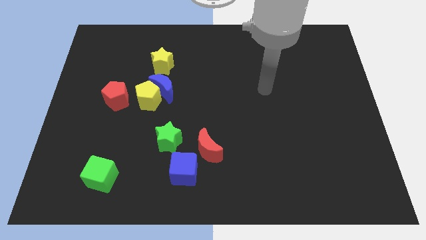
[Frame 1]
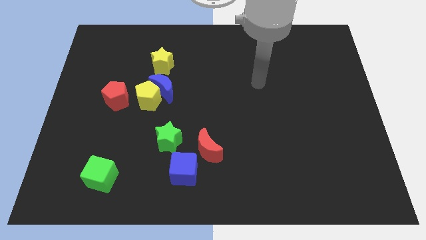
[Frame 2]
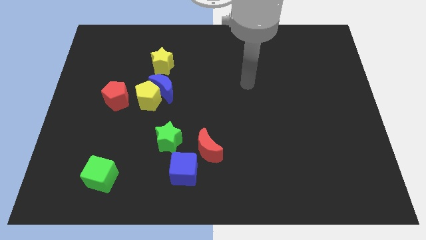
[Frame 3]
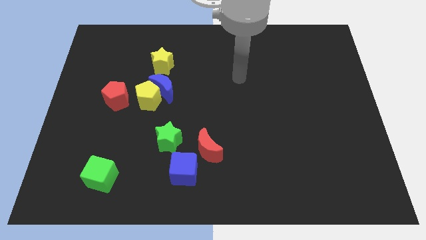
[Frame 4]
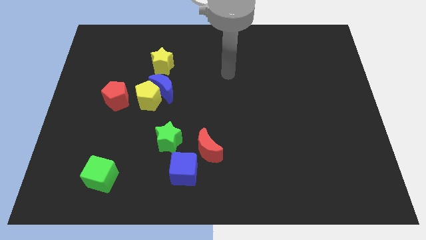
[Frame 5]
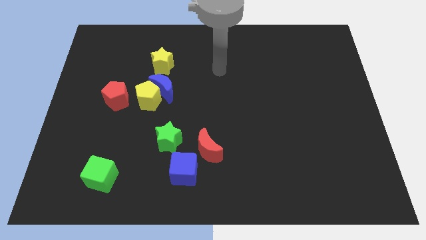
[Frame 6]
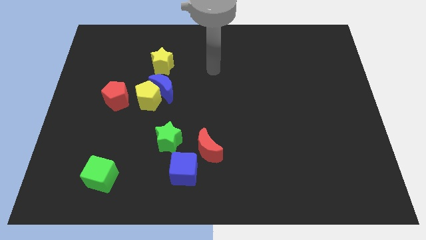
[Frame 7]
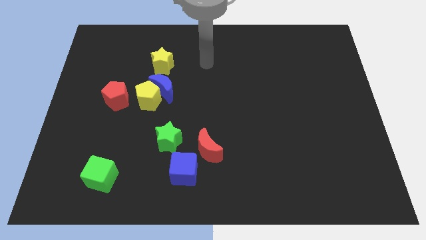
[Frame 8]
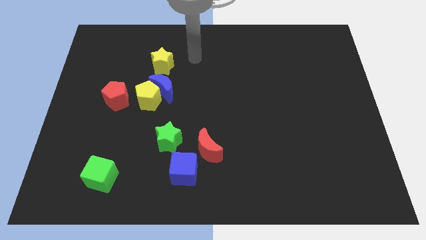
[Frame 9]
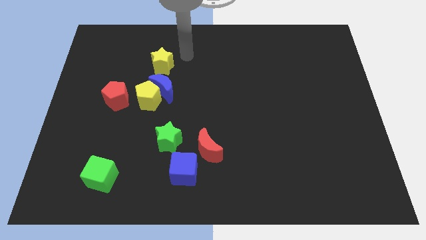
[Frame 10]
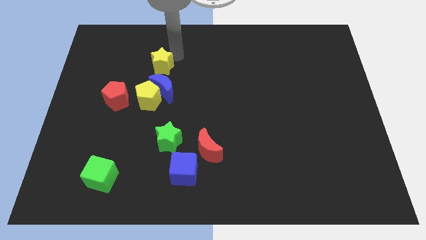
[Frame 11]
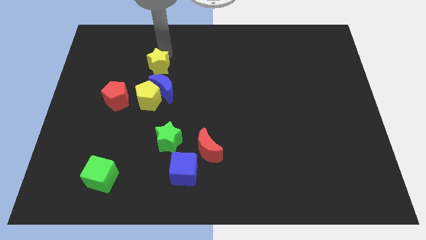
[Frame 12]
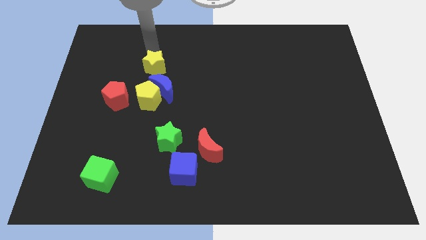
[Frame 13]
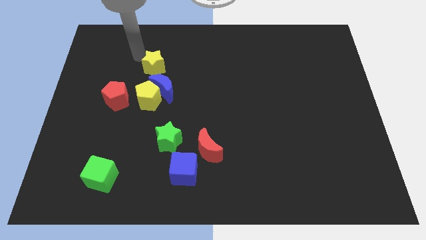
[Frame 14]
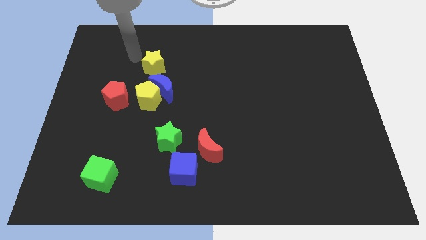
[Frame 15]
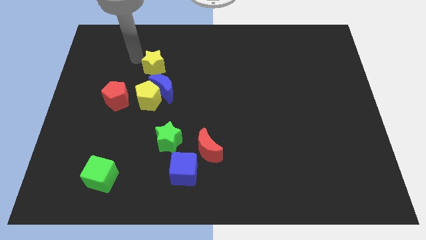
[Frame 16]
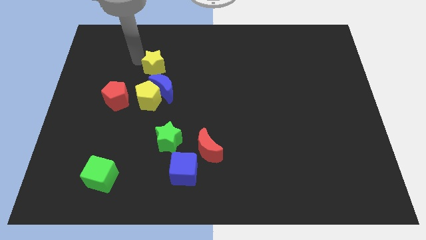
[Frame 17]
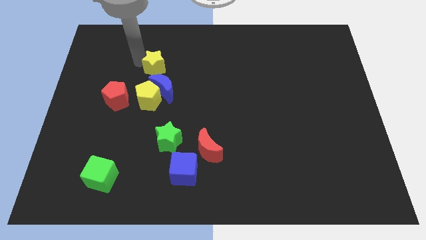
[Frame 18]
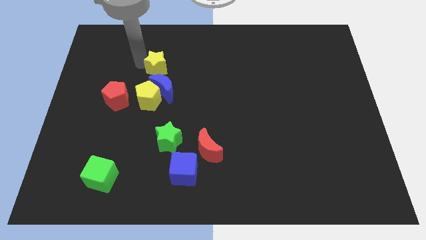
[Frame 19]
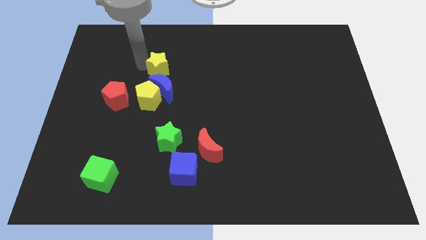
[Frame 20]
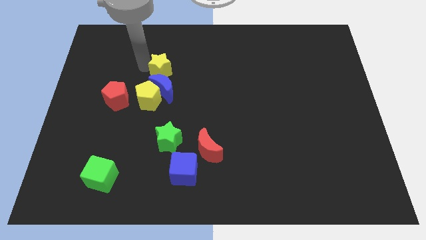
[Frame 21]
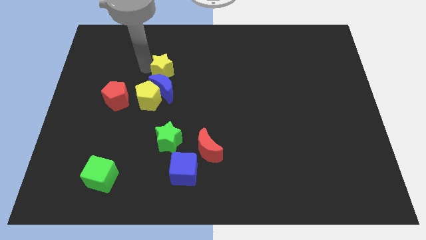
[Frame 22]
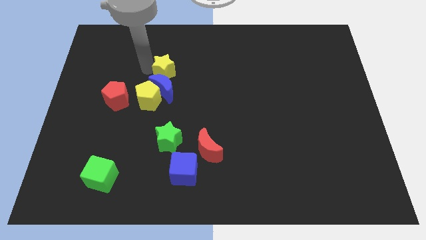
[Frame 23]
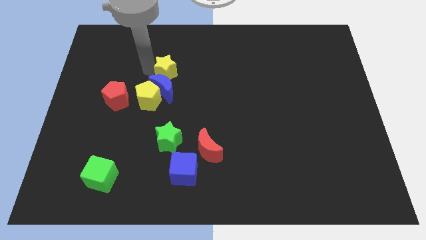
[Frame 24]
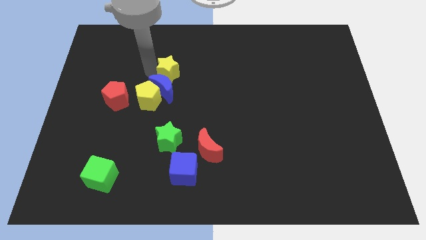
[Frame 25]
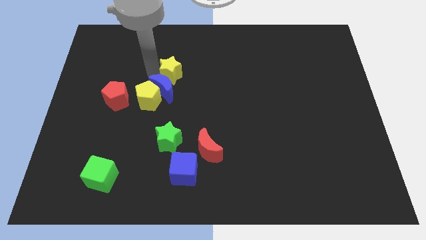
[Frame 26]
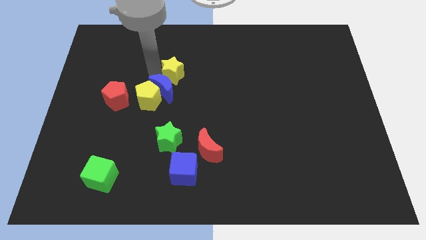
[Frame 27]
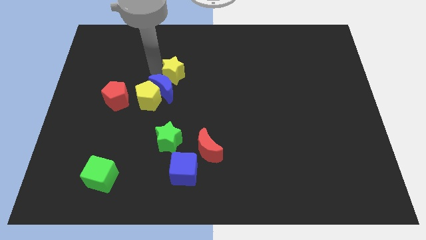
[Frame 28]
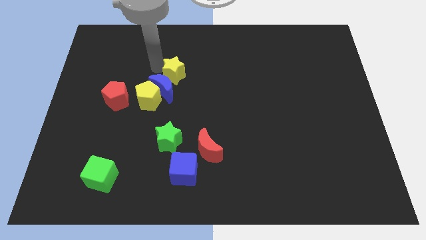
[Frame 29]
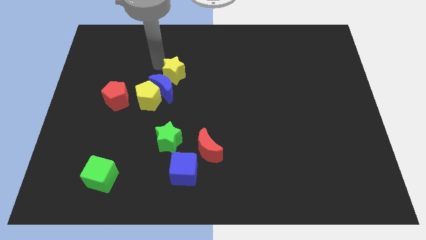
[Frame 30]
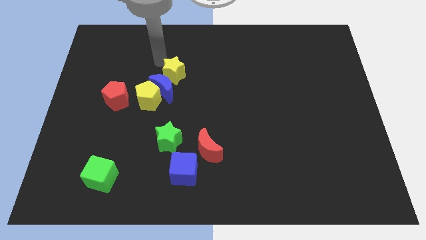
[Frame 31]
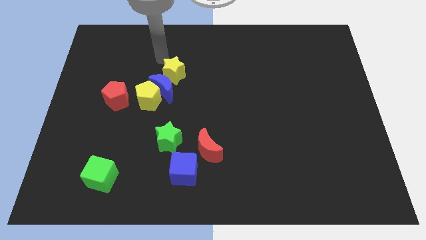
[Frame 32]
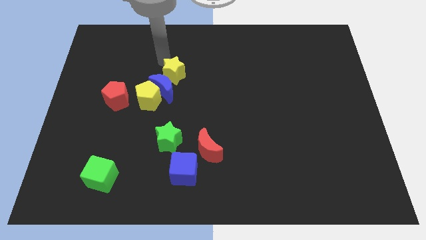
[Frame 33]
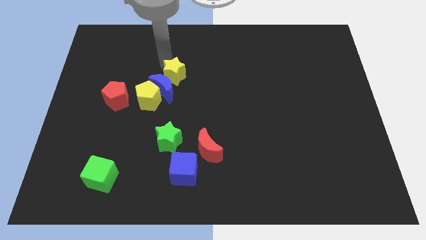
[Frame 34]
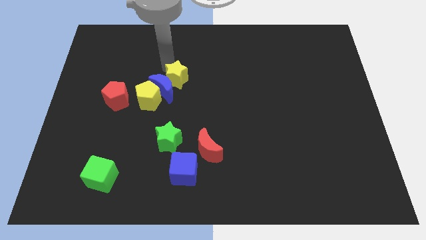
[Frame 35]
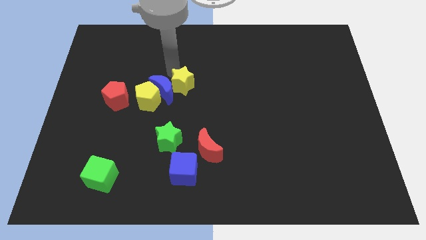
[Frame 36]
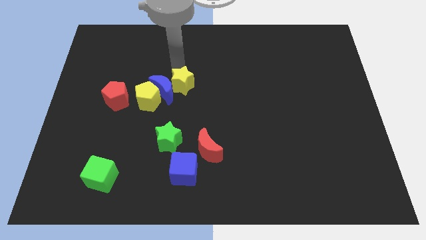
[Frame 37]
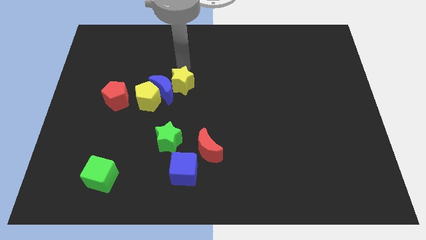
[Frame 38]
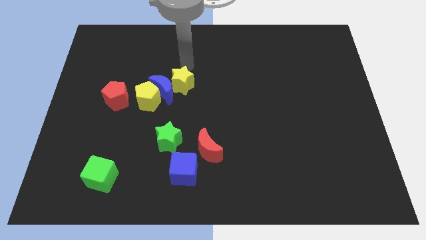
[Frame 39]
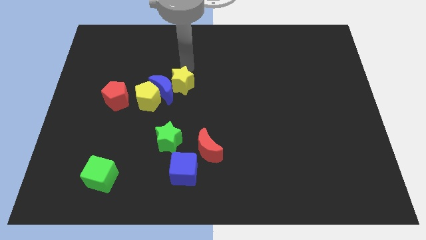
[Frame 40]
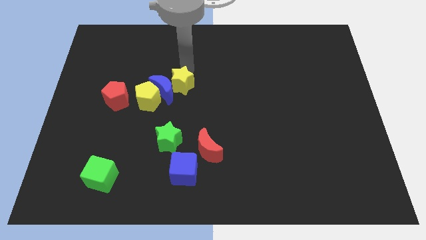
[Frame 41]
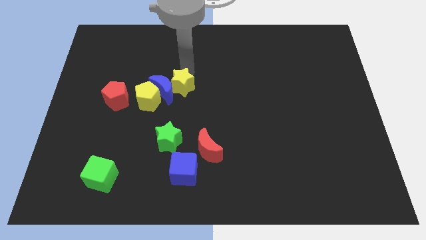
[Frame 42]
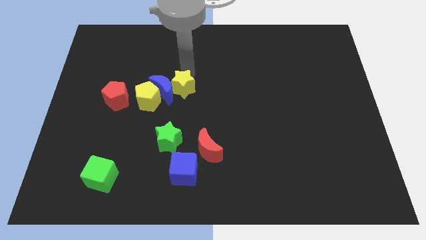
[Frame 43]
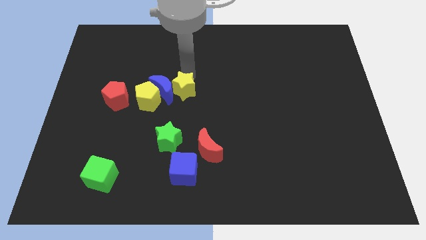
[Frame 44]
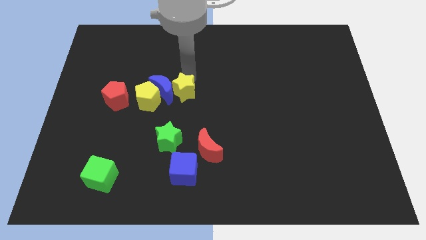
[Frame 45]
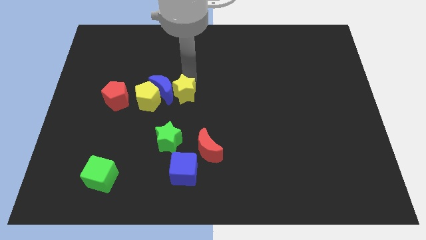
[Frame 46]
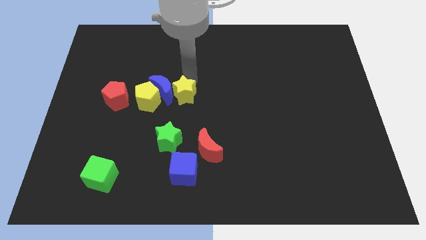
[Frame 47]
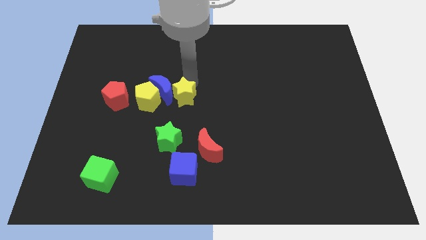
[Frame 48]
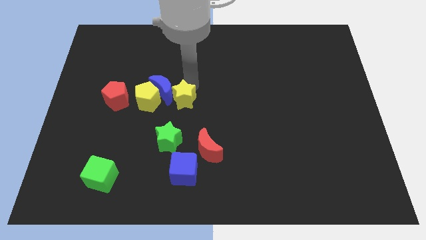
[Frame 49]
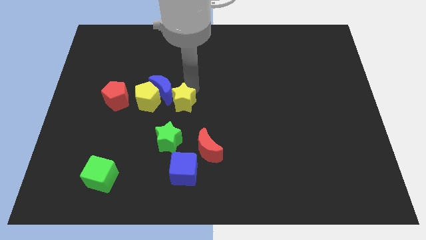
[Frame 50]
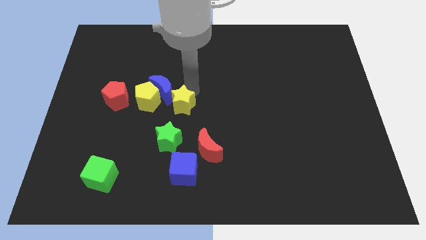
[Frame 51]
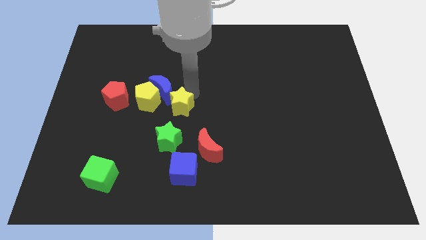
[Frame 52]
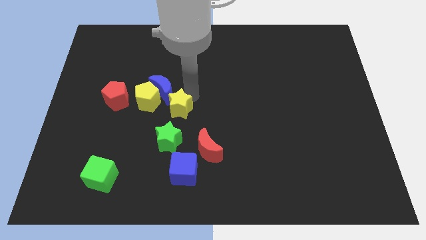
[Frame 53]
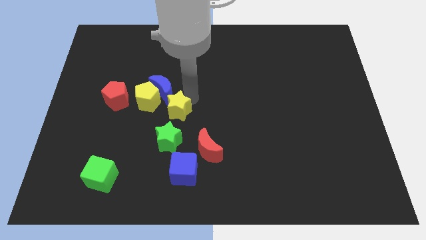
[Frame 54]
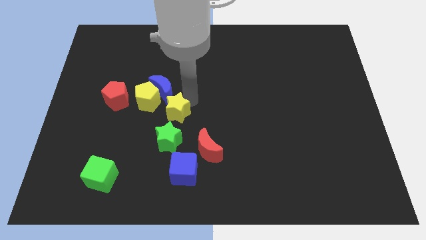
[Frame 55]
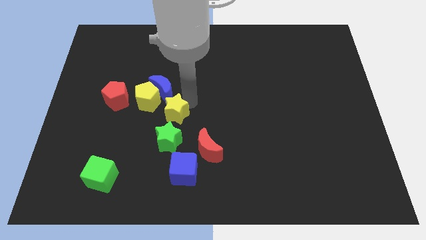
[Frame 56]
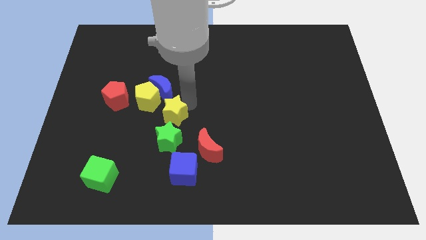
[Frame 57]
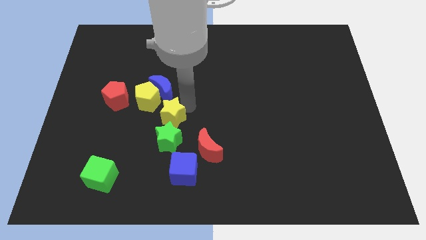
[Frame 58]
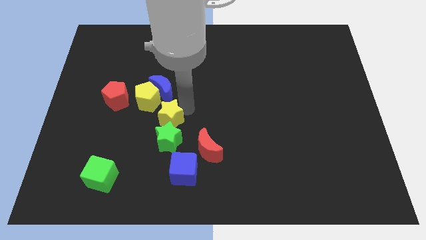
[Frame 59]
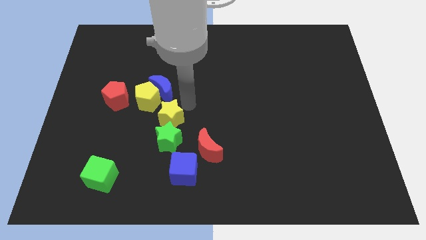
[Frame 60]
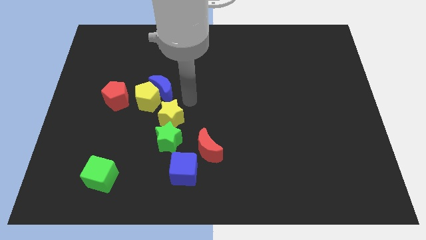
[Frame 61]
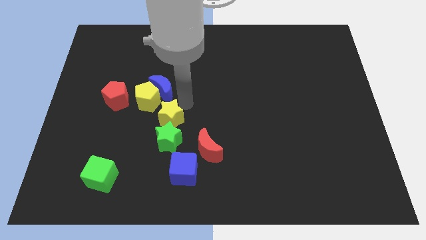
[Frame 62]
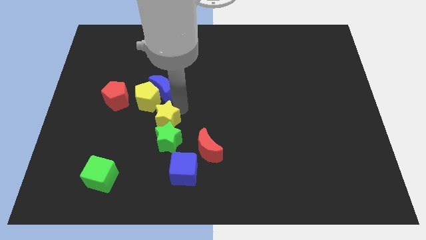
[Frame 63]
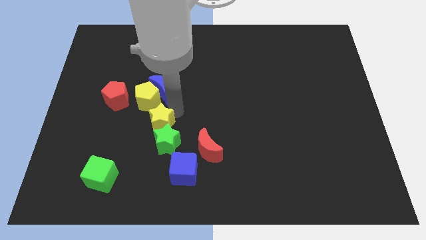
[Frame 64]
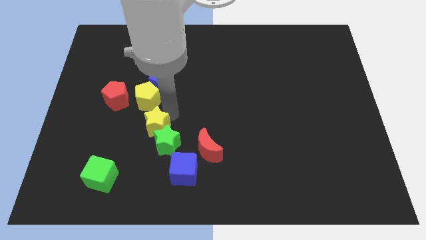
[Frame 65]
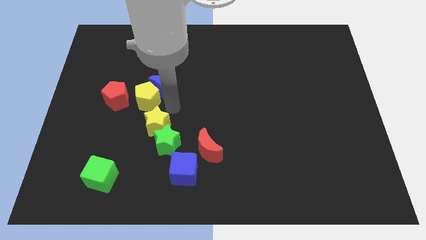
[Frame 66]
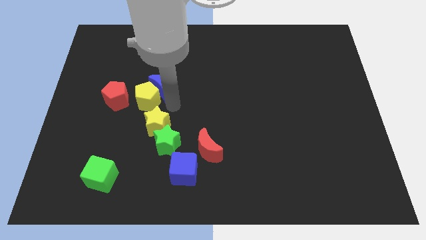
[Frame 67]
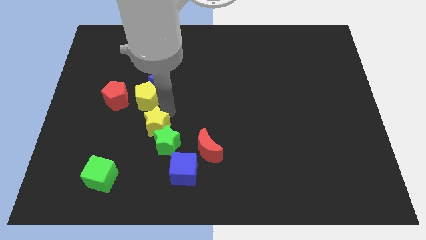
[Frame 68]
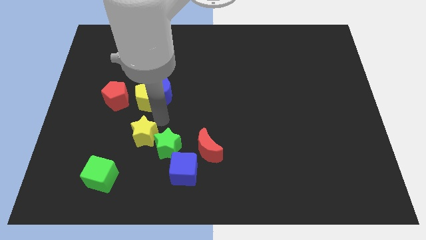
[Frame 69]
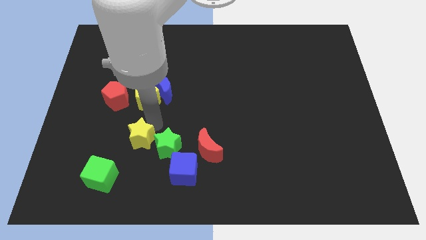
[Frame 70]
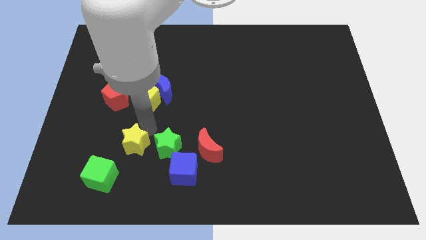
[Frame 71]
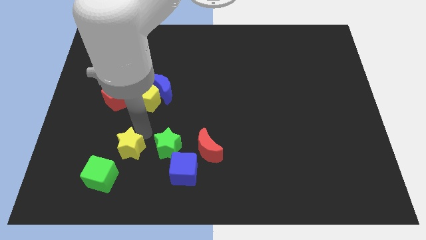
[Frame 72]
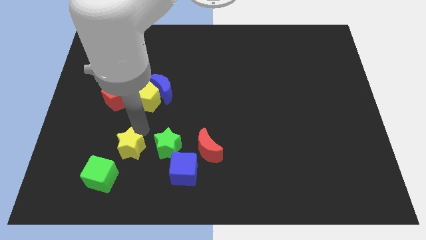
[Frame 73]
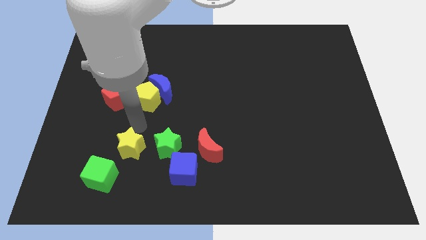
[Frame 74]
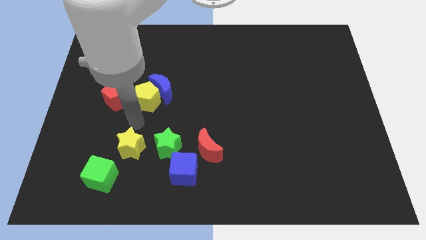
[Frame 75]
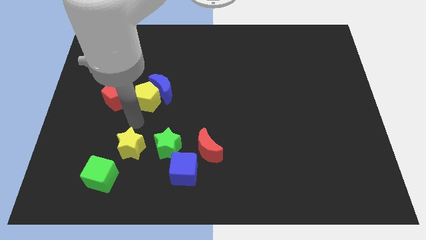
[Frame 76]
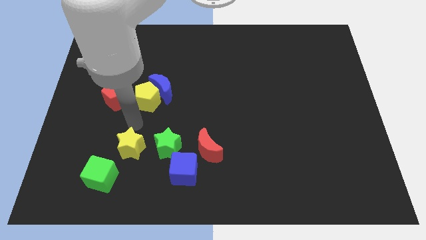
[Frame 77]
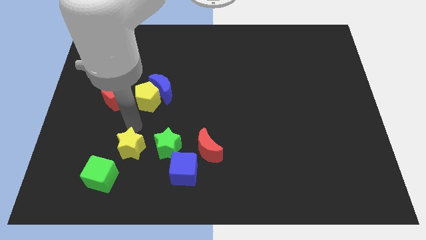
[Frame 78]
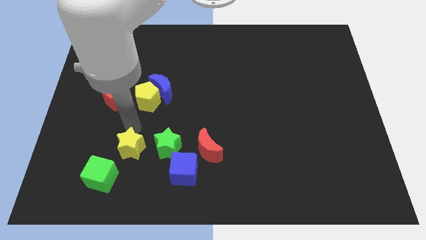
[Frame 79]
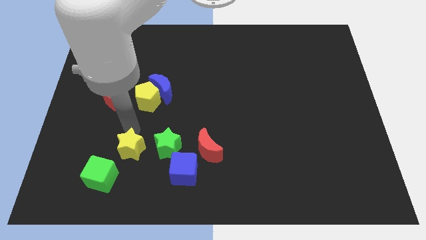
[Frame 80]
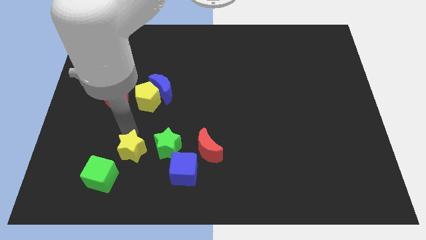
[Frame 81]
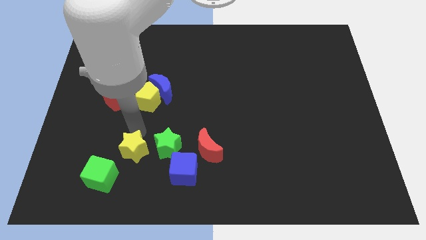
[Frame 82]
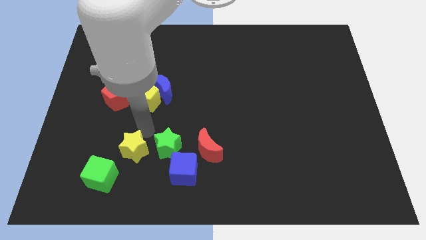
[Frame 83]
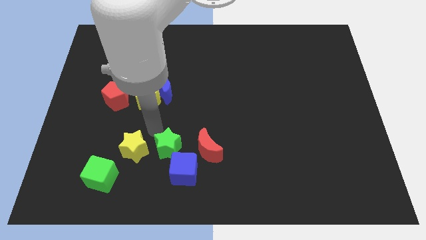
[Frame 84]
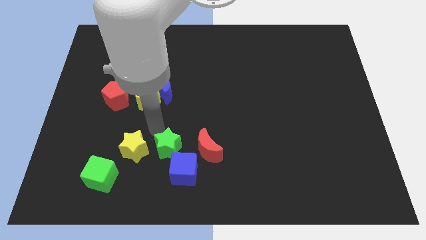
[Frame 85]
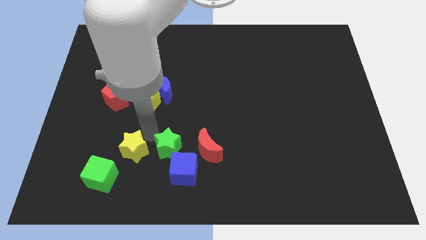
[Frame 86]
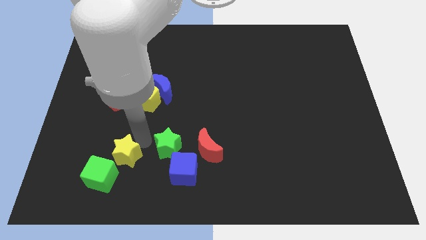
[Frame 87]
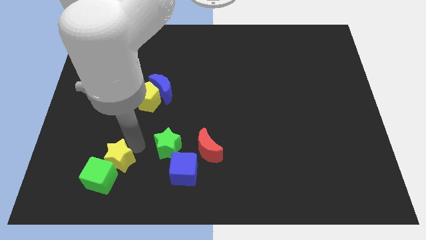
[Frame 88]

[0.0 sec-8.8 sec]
move the yellow star next to the green cube
